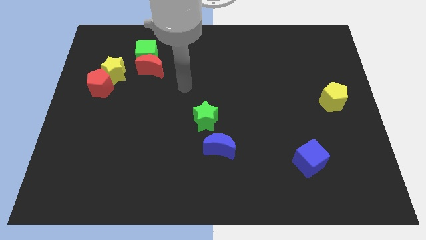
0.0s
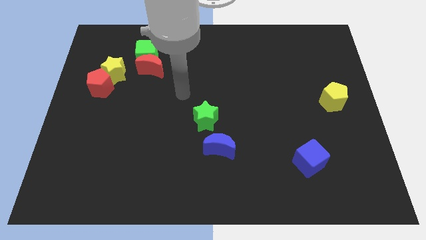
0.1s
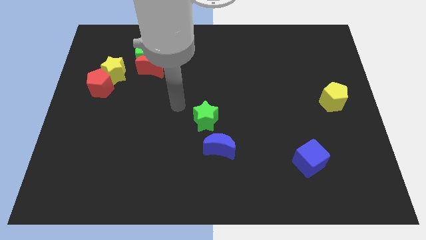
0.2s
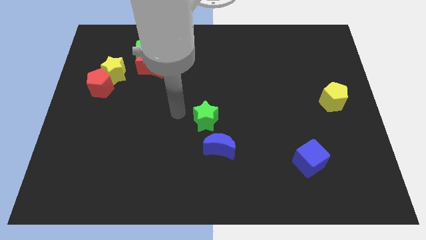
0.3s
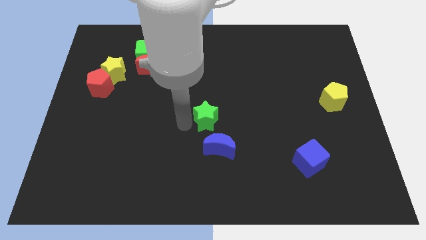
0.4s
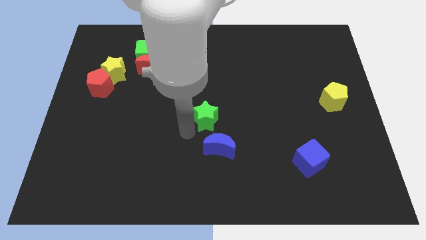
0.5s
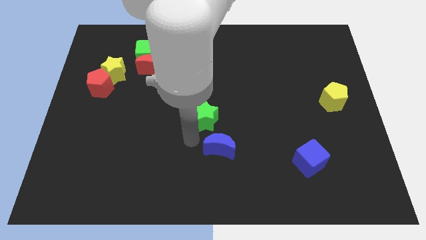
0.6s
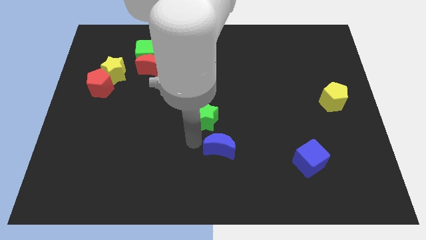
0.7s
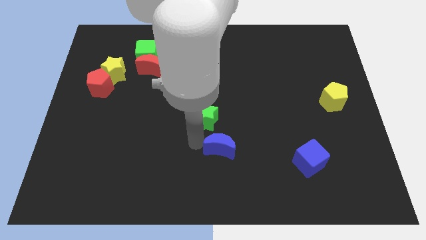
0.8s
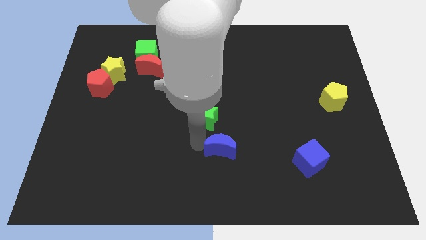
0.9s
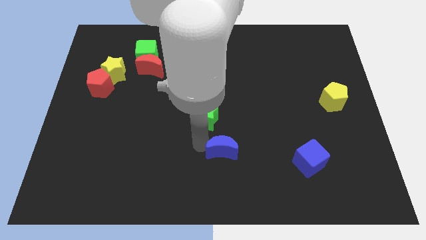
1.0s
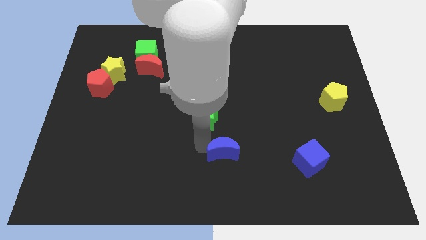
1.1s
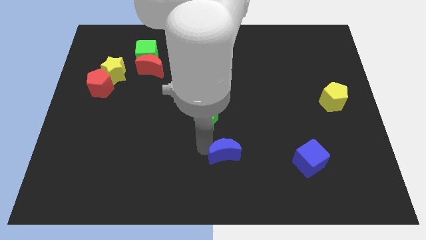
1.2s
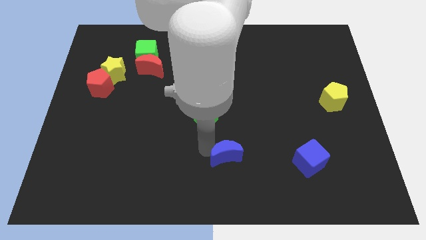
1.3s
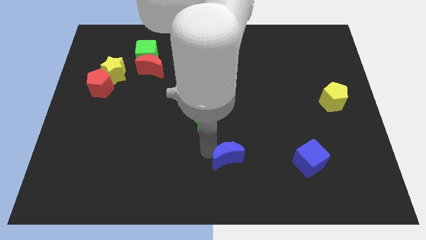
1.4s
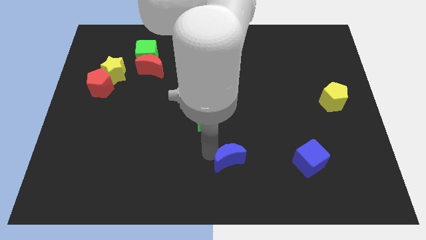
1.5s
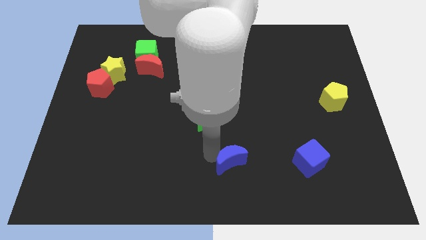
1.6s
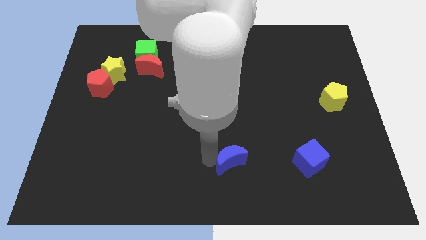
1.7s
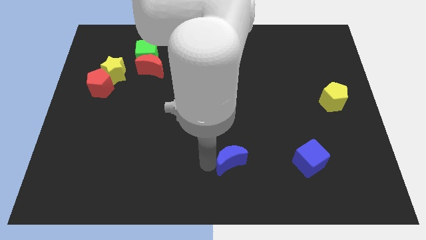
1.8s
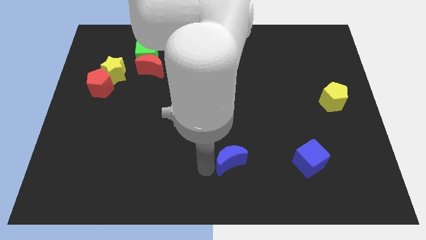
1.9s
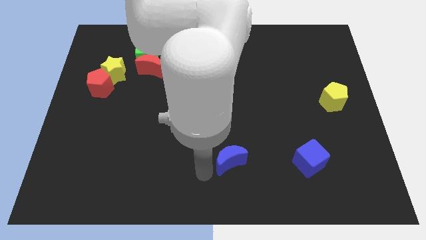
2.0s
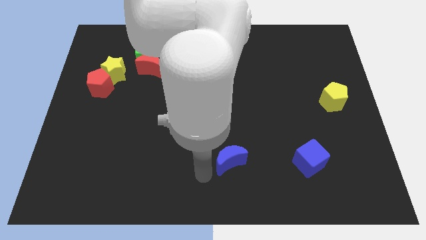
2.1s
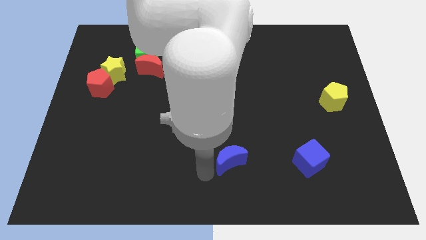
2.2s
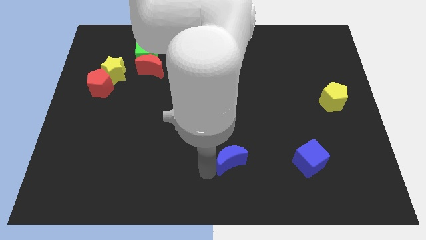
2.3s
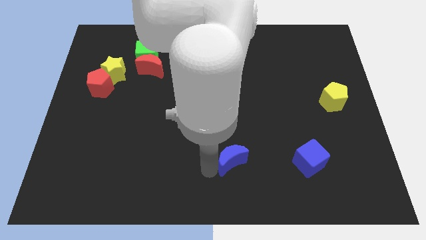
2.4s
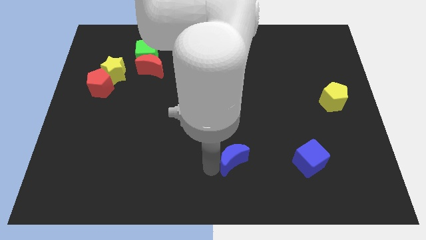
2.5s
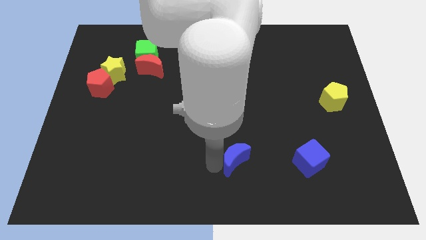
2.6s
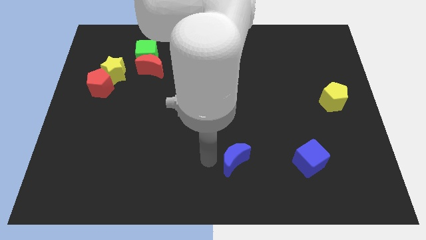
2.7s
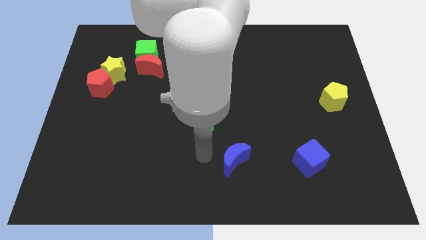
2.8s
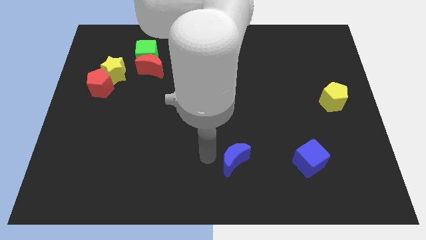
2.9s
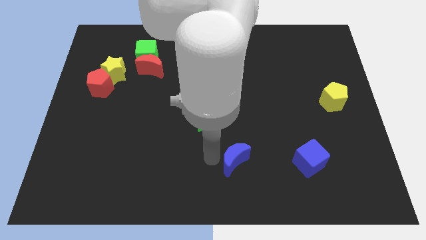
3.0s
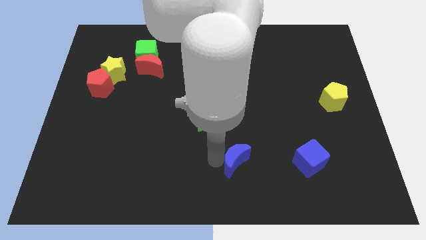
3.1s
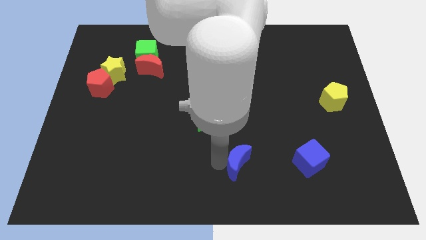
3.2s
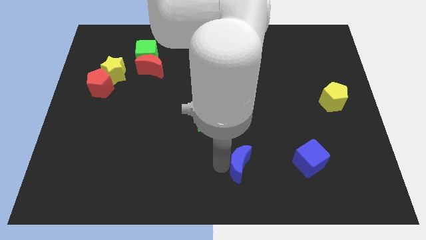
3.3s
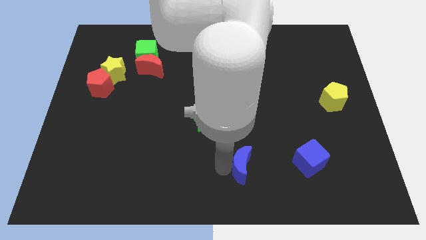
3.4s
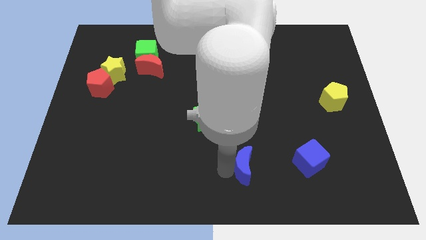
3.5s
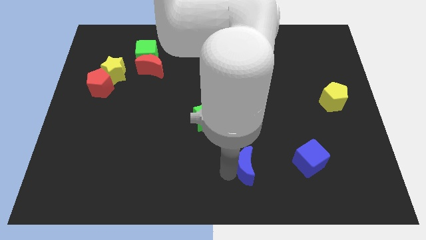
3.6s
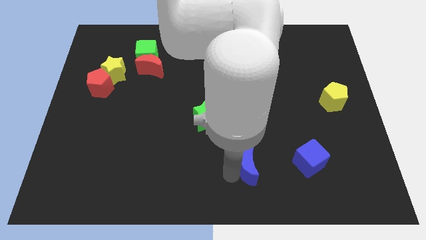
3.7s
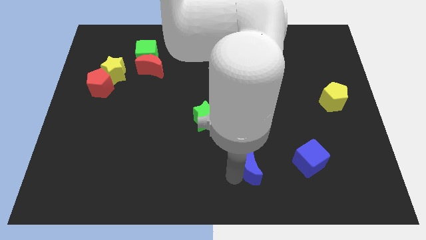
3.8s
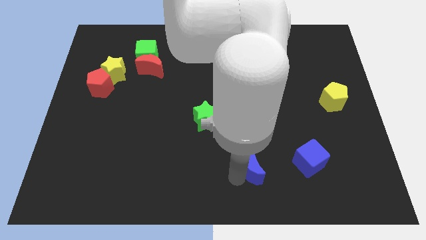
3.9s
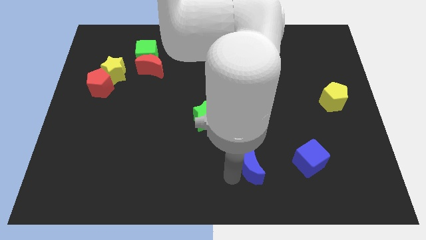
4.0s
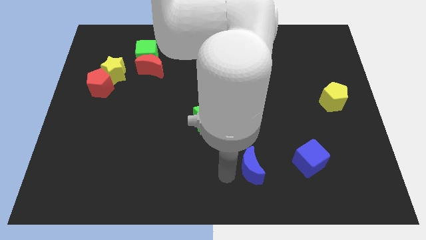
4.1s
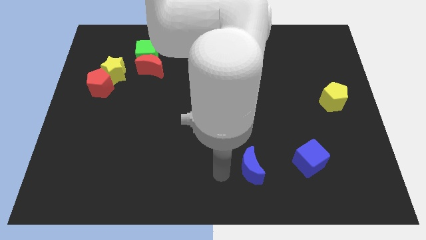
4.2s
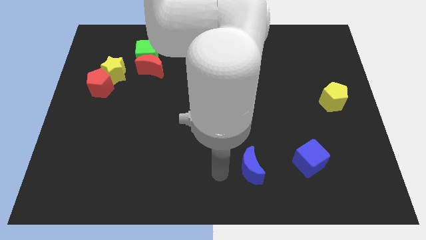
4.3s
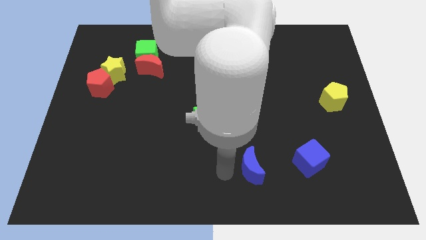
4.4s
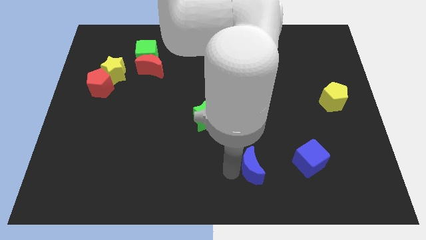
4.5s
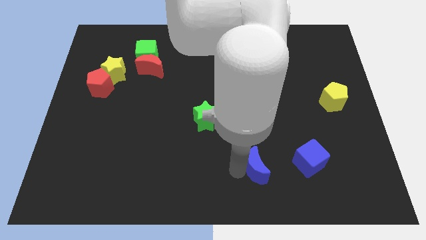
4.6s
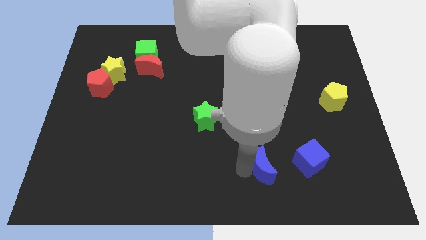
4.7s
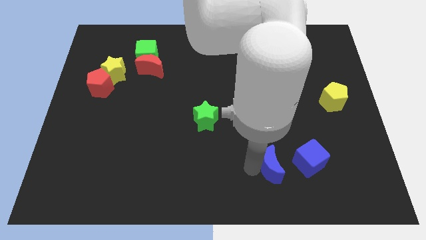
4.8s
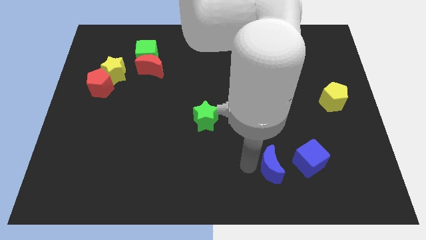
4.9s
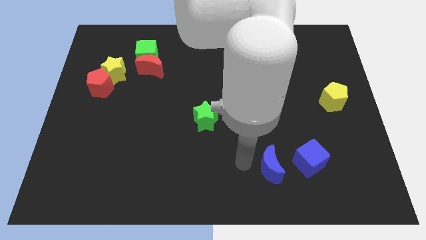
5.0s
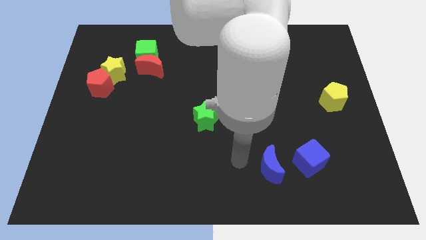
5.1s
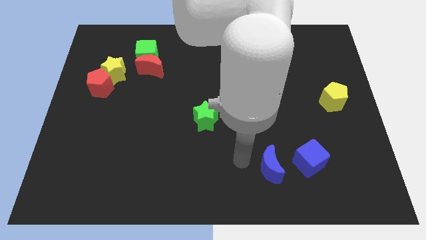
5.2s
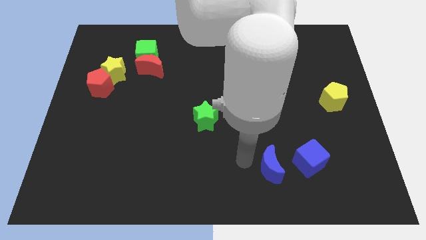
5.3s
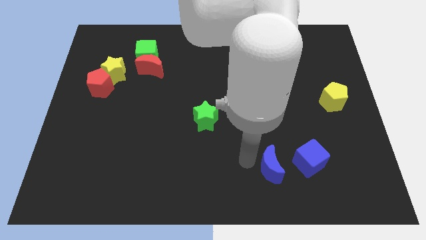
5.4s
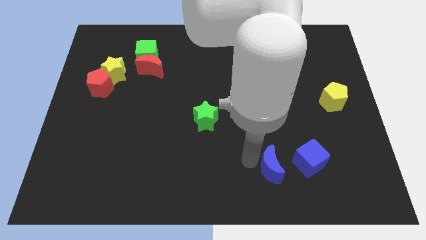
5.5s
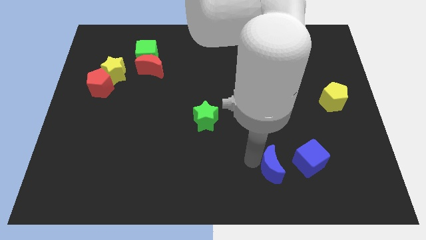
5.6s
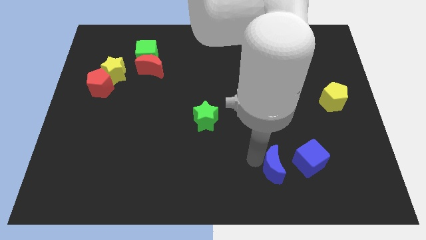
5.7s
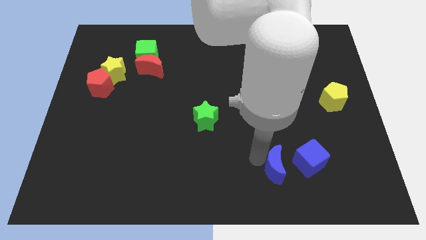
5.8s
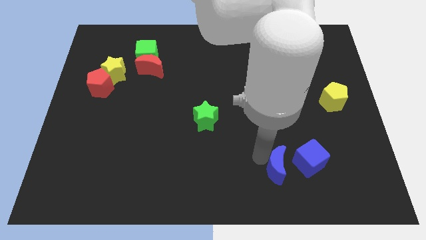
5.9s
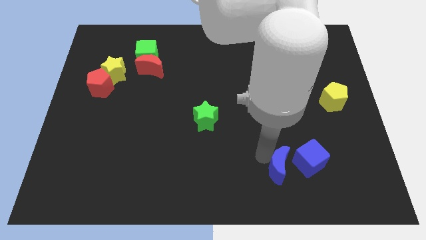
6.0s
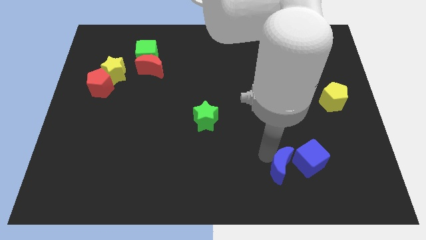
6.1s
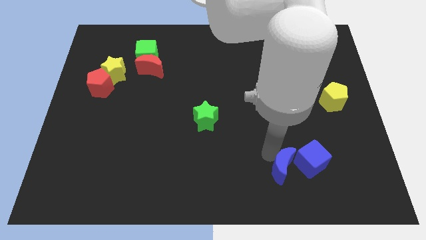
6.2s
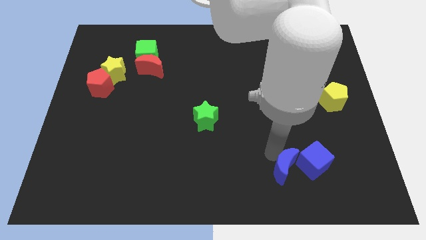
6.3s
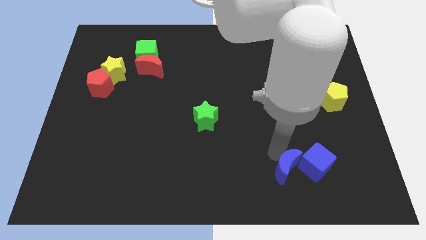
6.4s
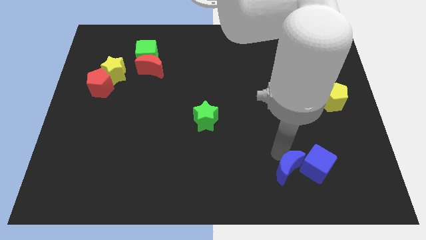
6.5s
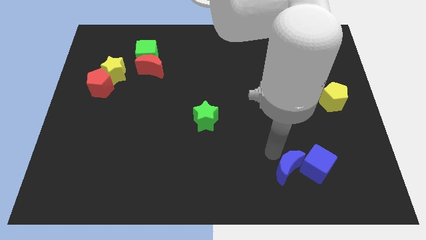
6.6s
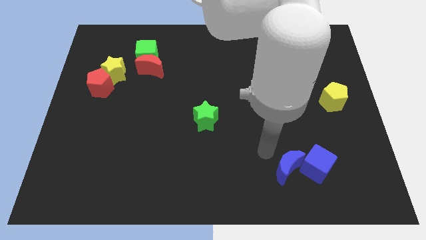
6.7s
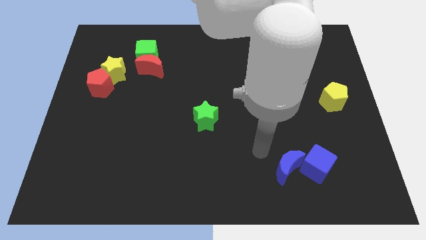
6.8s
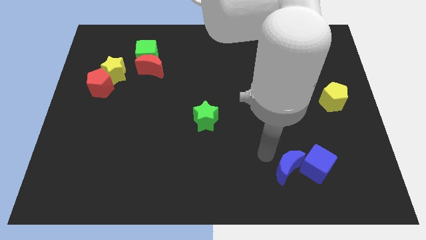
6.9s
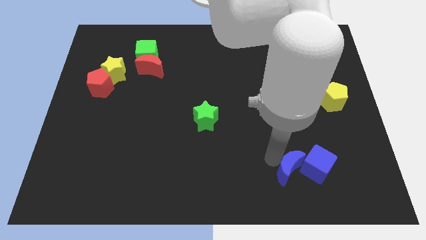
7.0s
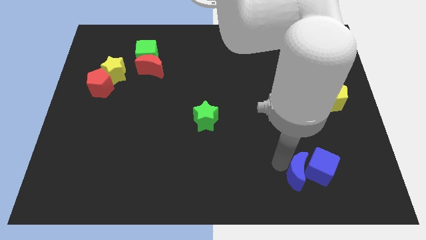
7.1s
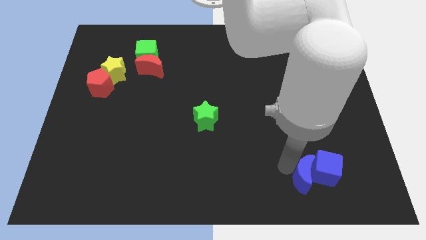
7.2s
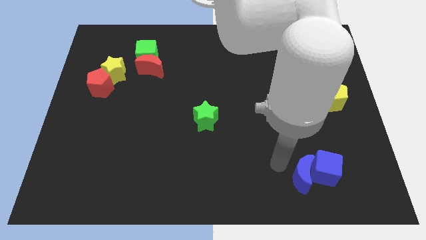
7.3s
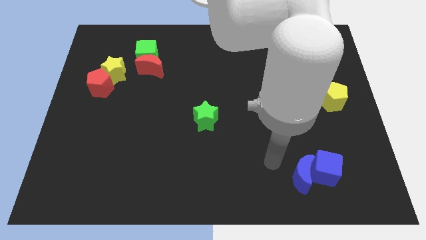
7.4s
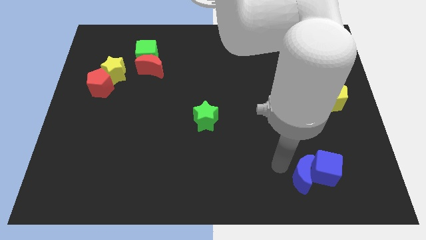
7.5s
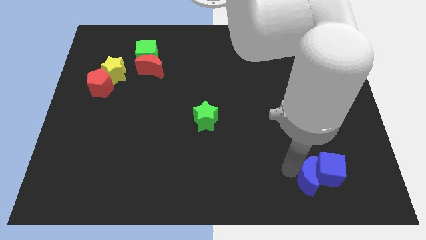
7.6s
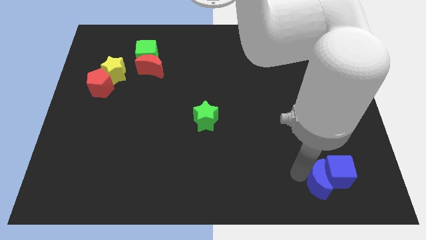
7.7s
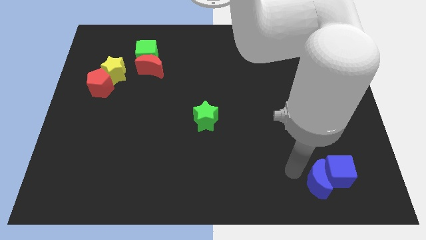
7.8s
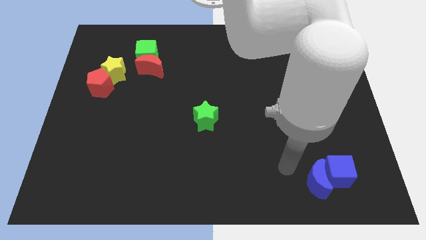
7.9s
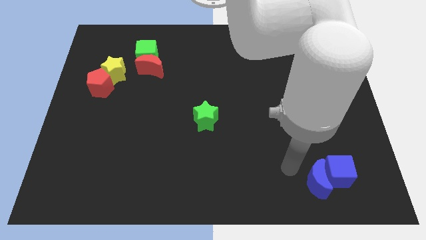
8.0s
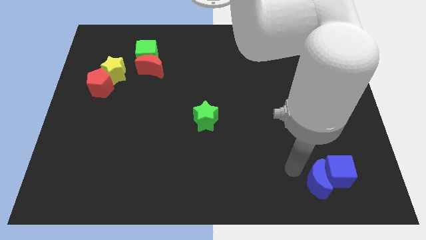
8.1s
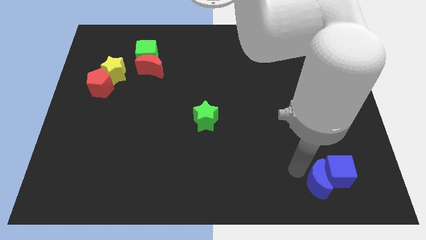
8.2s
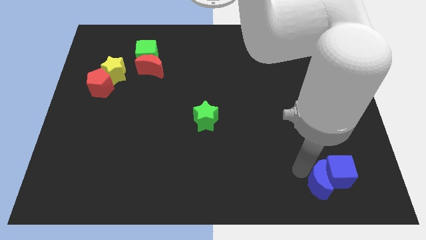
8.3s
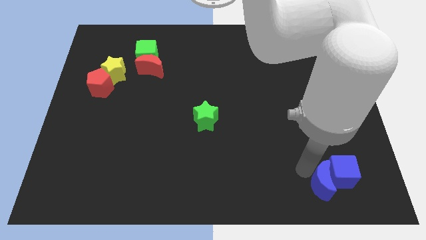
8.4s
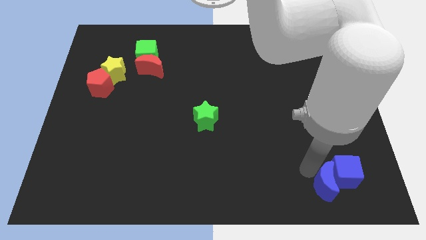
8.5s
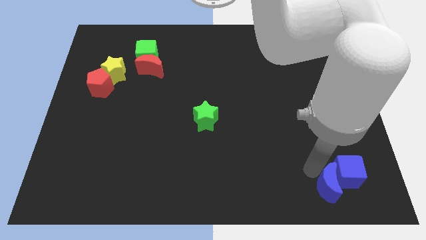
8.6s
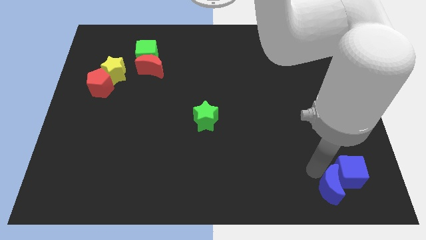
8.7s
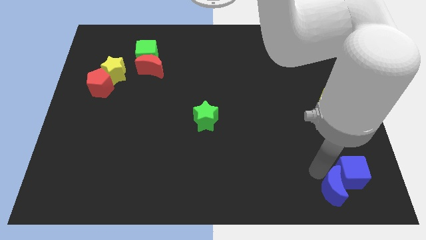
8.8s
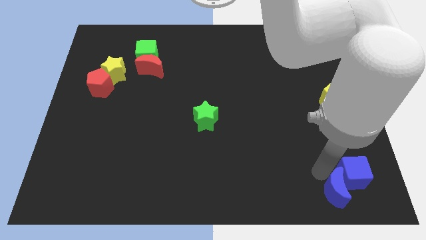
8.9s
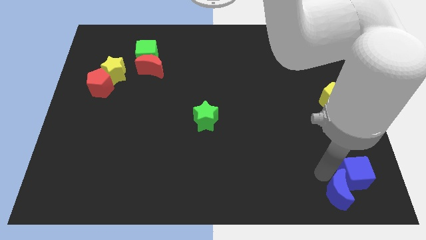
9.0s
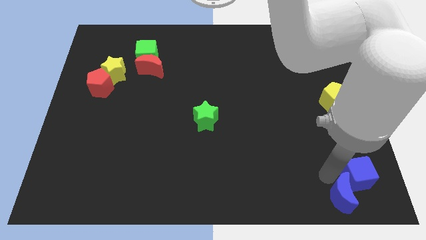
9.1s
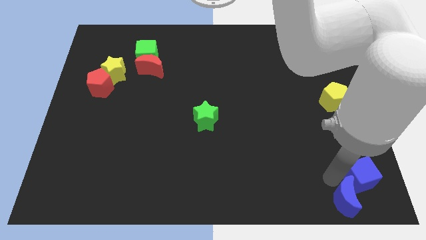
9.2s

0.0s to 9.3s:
move the blue moon to the bottom right
